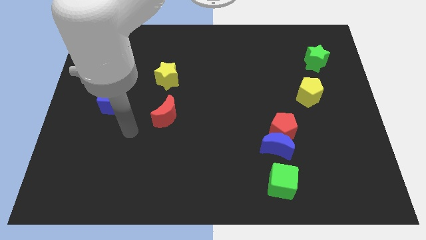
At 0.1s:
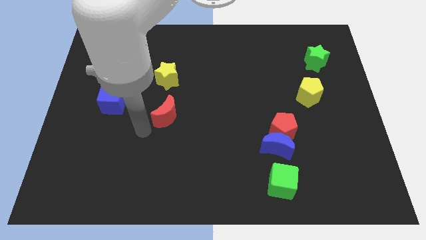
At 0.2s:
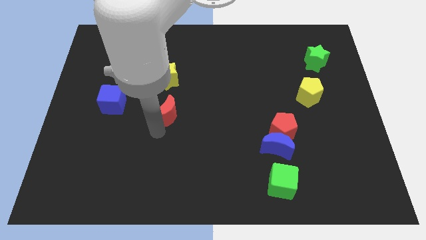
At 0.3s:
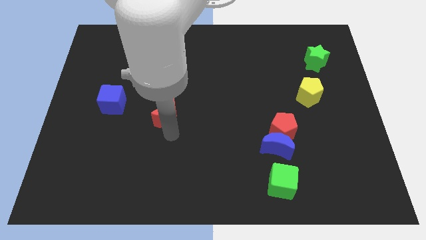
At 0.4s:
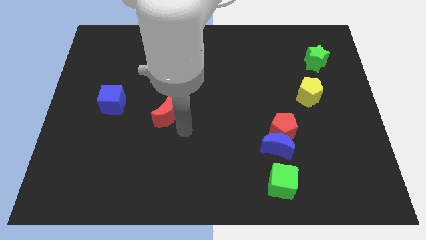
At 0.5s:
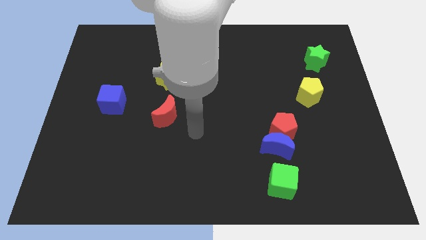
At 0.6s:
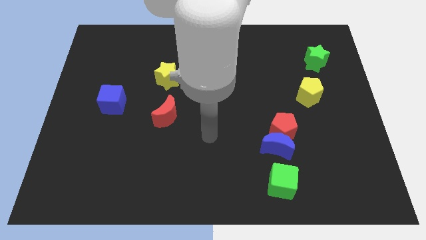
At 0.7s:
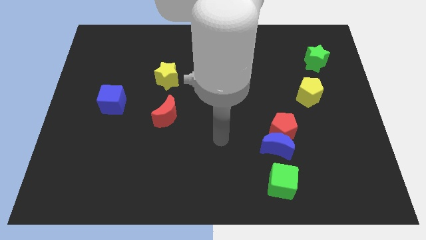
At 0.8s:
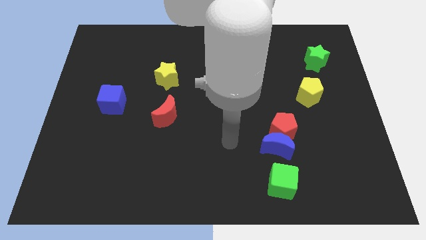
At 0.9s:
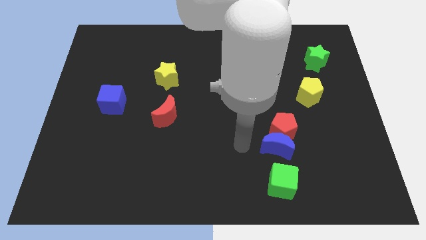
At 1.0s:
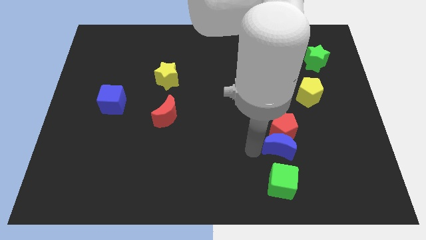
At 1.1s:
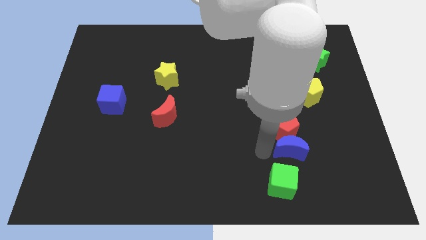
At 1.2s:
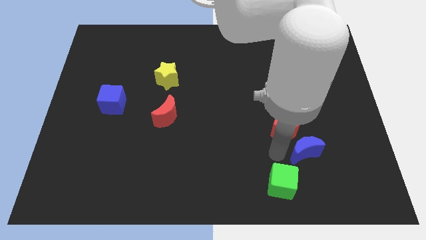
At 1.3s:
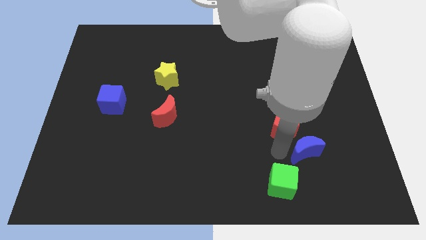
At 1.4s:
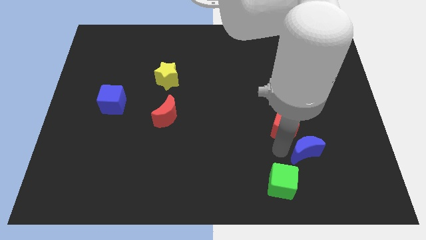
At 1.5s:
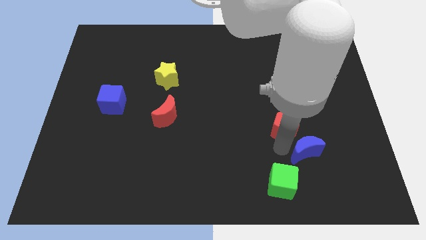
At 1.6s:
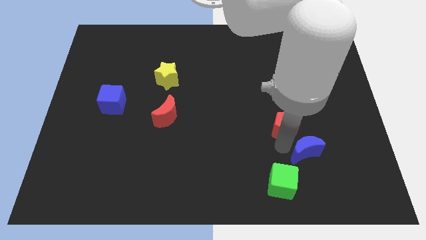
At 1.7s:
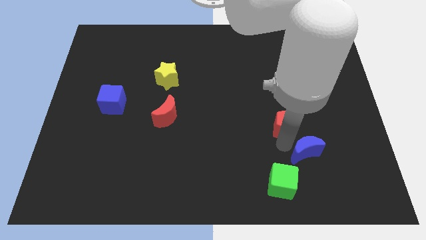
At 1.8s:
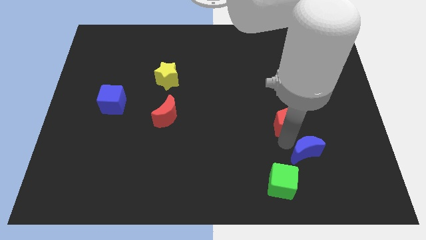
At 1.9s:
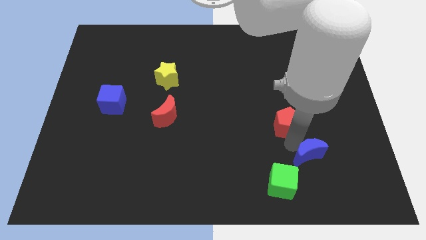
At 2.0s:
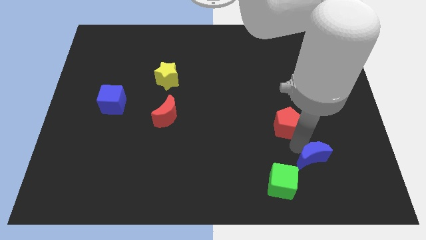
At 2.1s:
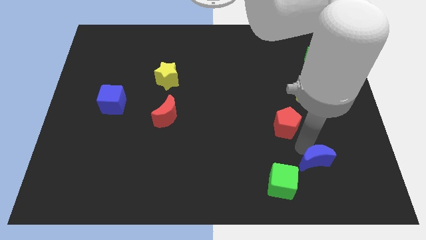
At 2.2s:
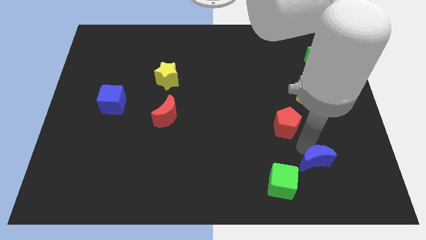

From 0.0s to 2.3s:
separate the red pentagon from the blue moon

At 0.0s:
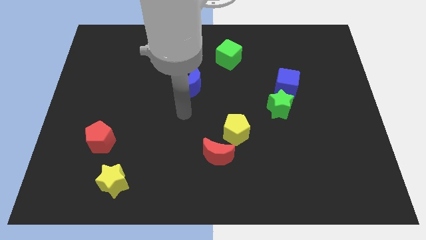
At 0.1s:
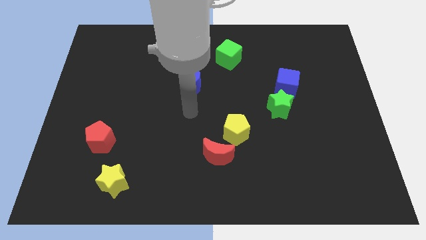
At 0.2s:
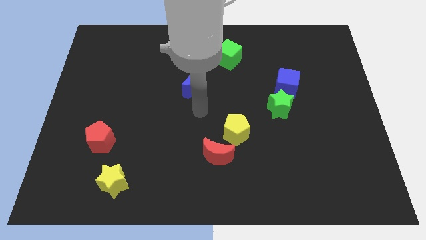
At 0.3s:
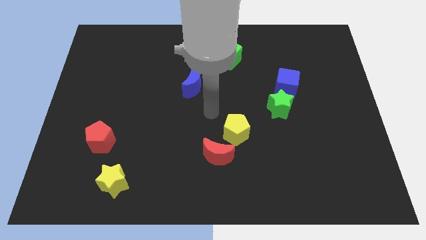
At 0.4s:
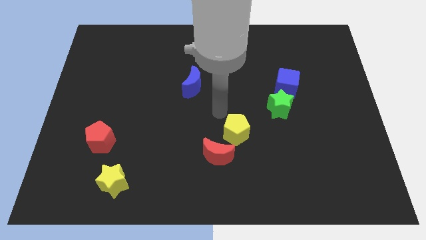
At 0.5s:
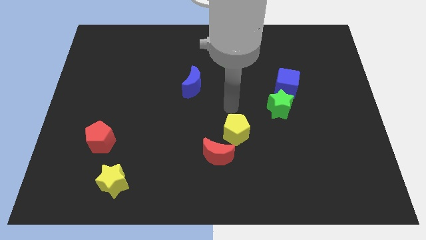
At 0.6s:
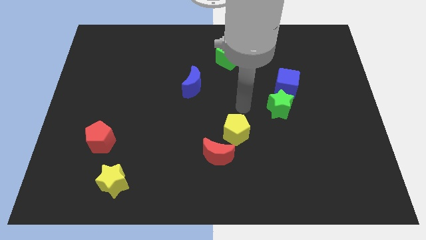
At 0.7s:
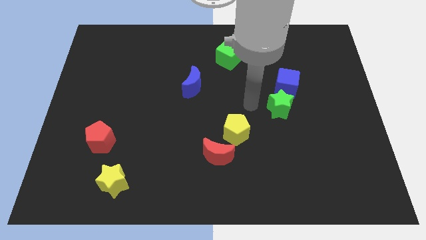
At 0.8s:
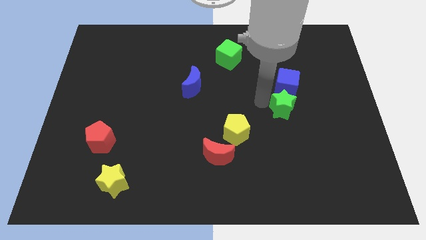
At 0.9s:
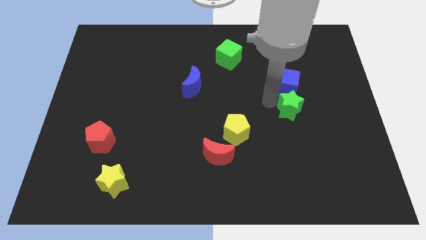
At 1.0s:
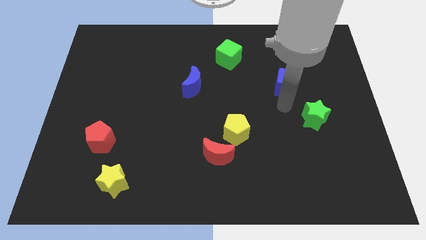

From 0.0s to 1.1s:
move the blue cube away from the green star

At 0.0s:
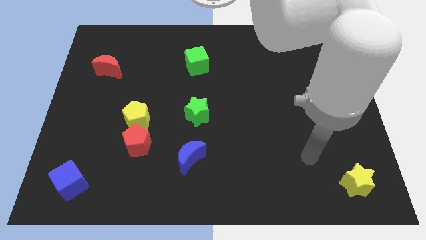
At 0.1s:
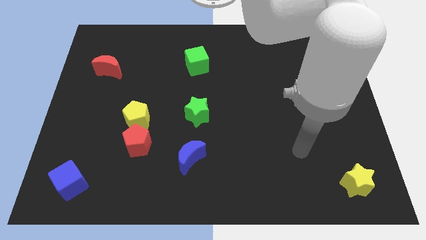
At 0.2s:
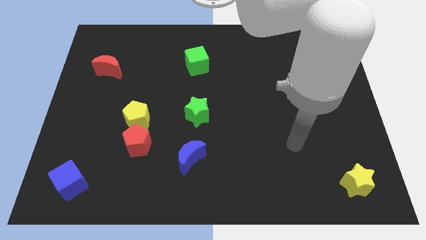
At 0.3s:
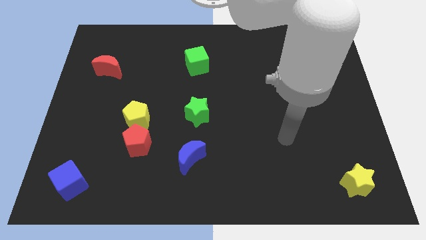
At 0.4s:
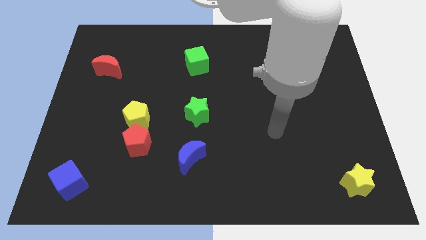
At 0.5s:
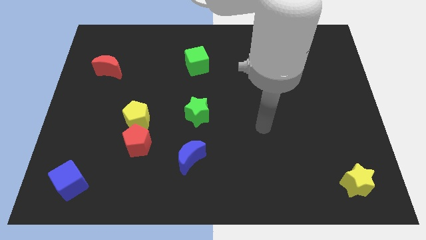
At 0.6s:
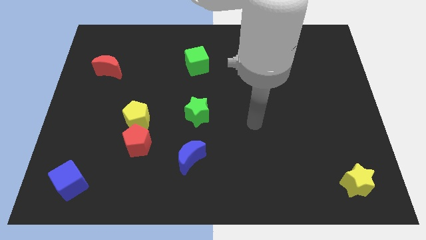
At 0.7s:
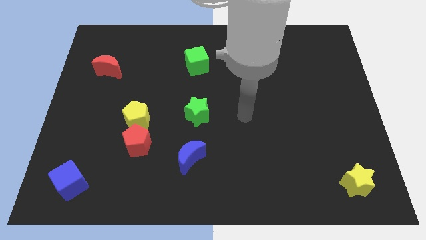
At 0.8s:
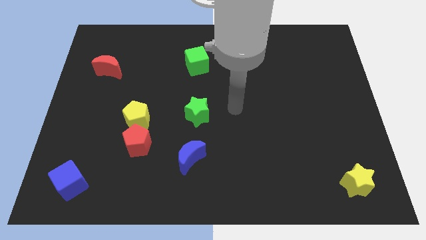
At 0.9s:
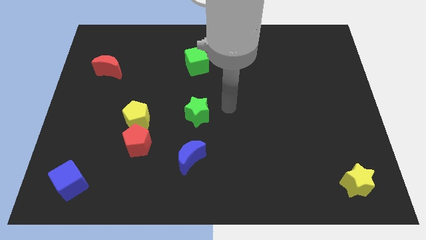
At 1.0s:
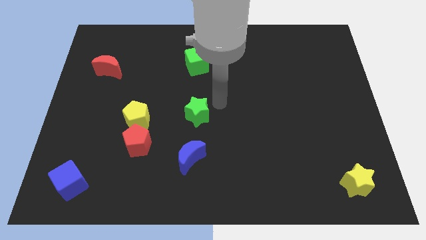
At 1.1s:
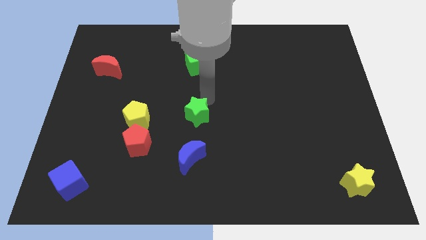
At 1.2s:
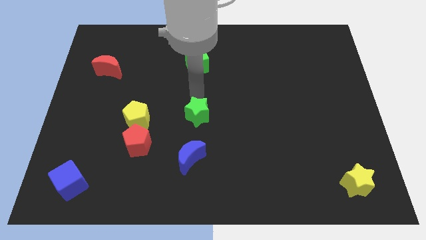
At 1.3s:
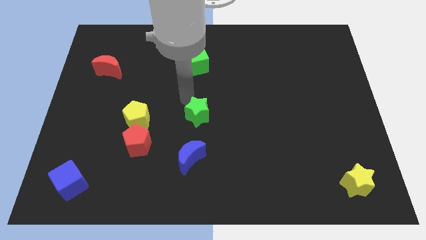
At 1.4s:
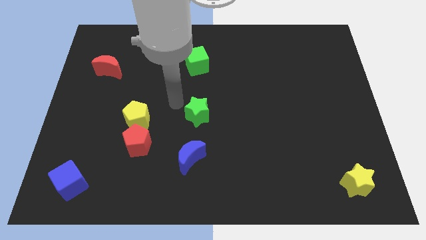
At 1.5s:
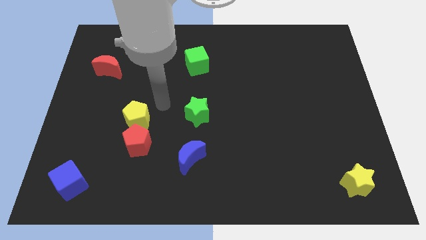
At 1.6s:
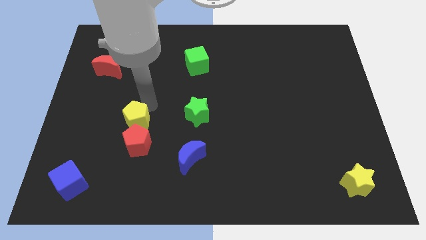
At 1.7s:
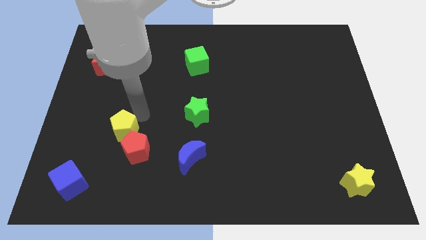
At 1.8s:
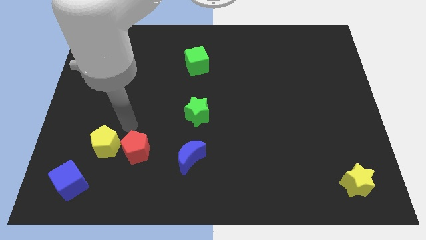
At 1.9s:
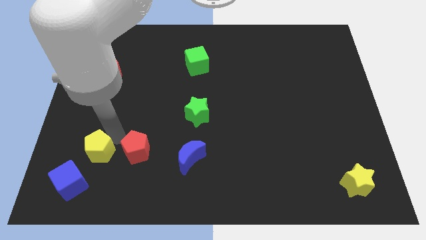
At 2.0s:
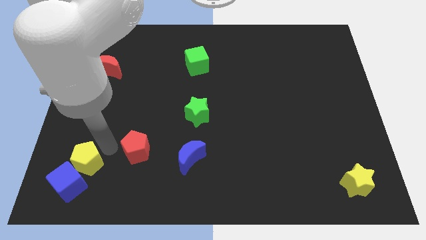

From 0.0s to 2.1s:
separate the red pentagon from the yellow pentagon

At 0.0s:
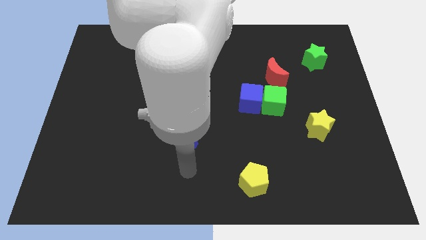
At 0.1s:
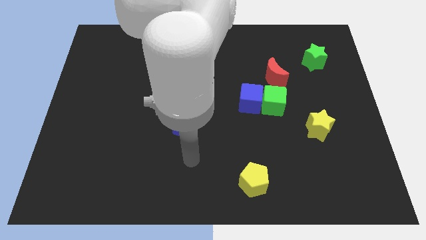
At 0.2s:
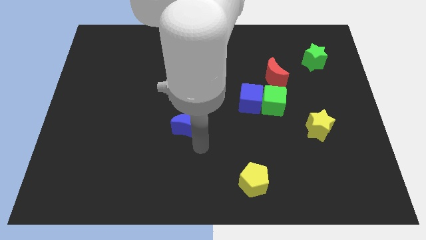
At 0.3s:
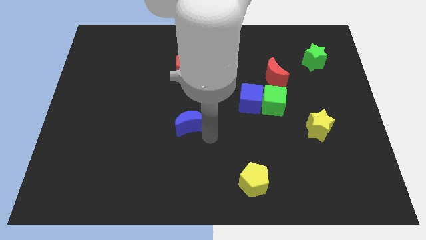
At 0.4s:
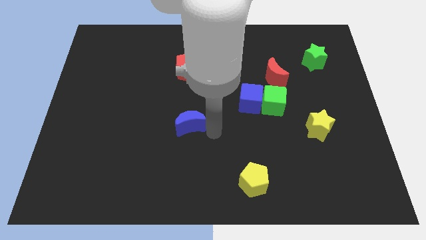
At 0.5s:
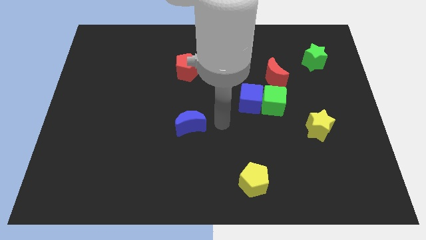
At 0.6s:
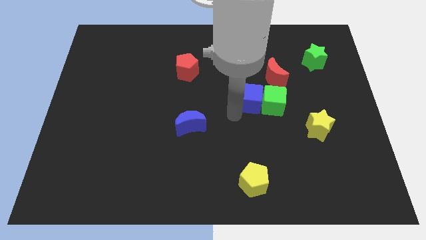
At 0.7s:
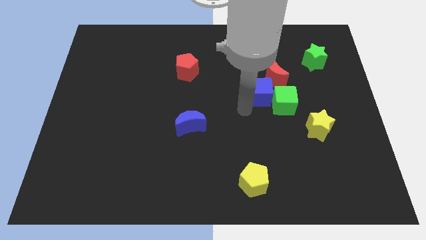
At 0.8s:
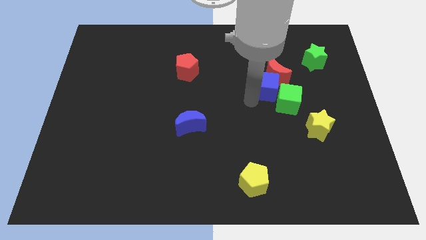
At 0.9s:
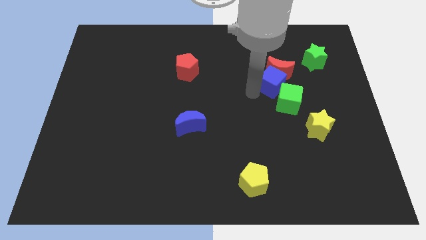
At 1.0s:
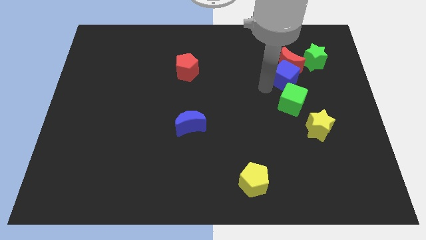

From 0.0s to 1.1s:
pull the green cube apart from the blue cube and red moon

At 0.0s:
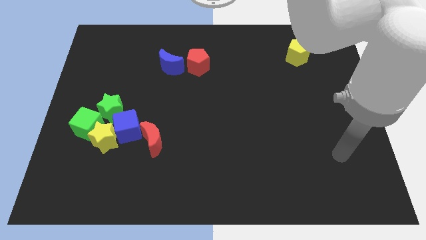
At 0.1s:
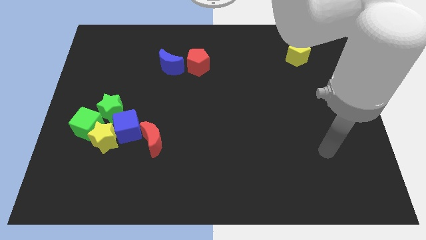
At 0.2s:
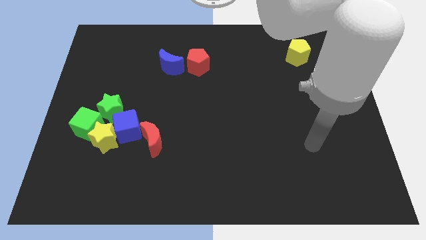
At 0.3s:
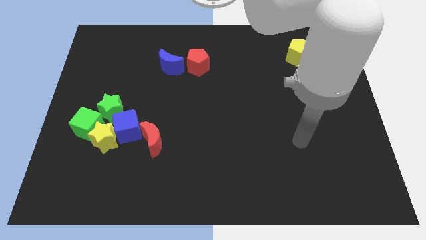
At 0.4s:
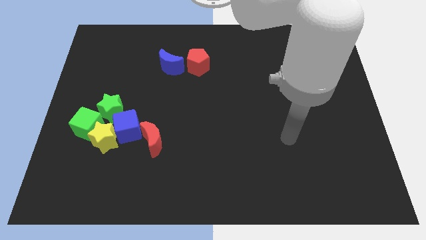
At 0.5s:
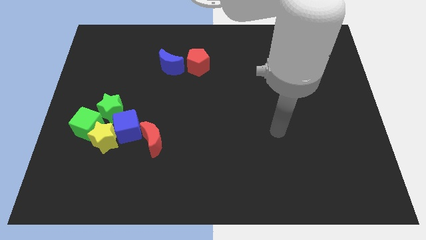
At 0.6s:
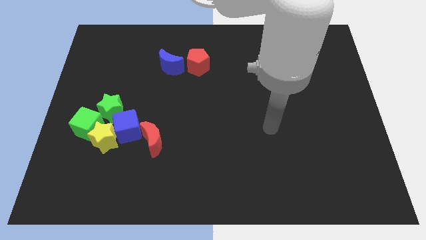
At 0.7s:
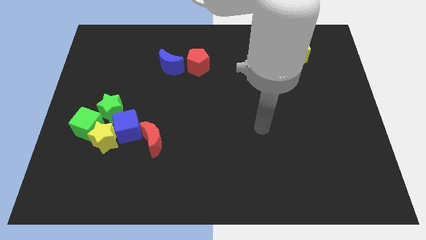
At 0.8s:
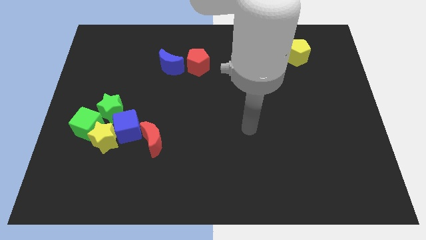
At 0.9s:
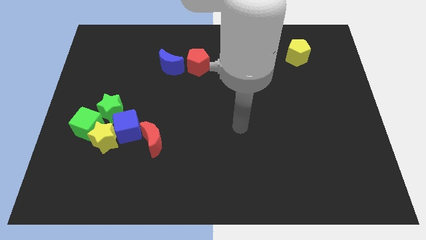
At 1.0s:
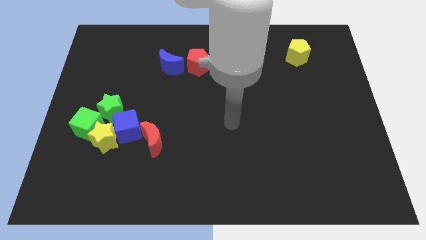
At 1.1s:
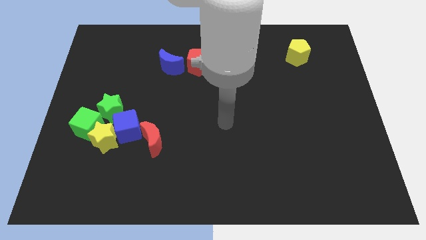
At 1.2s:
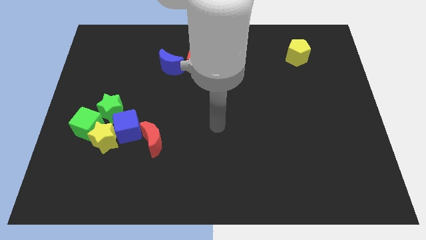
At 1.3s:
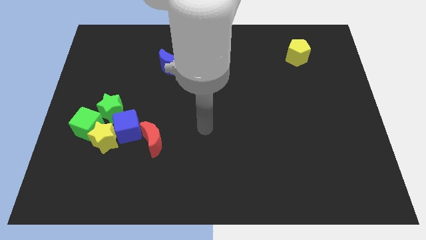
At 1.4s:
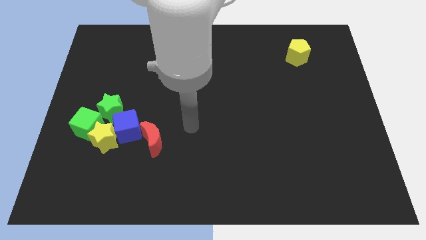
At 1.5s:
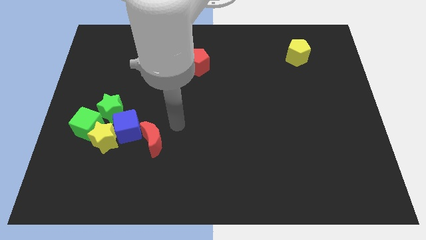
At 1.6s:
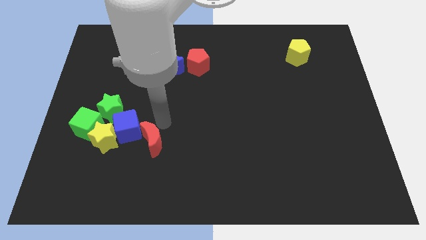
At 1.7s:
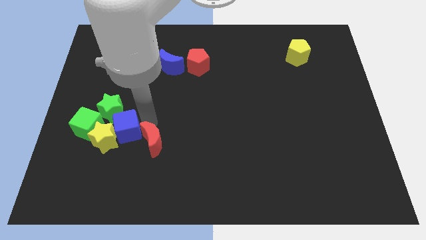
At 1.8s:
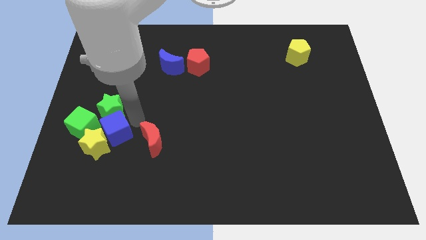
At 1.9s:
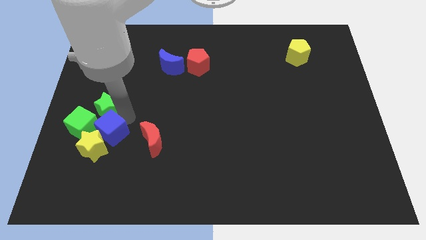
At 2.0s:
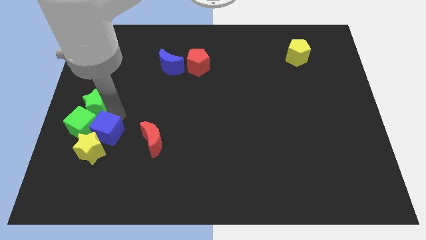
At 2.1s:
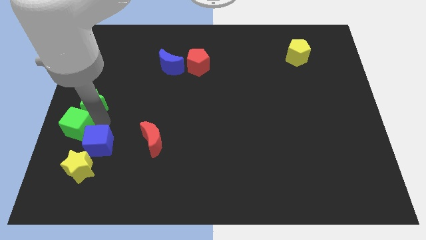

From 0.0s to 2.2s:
pull the yellow star apart from the blue cube, green cube, and green star

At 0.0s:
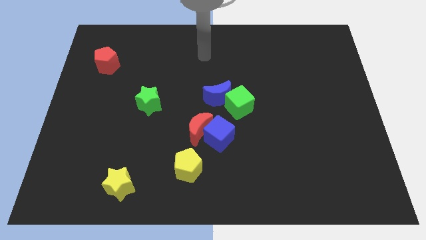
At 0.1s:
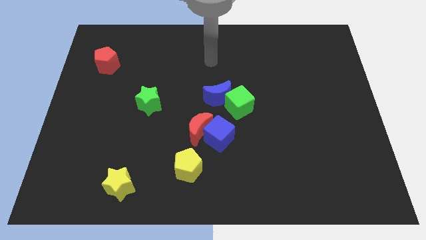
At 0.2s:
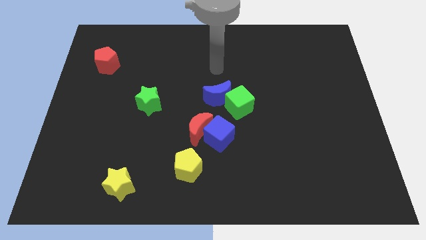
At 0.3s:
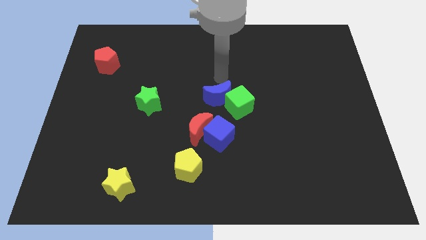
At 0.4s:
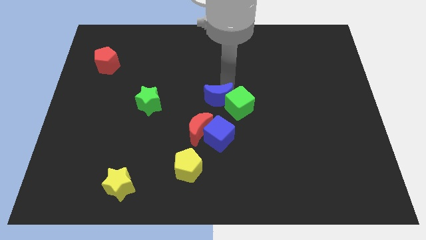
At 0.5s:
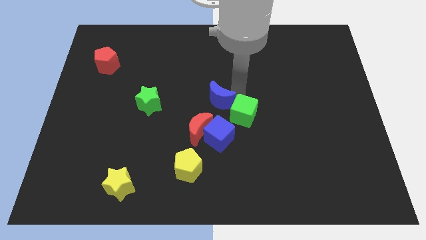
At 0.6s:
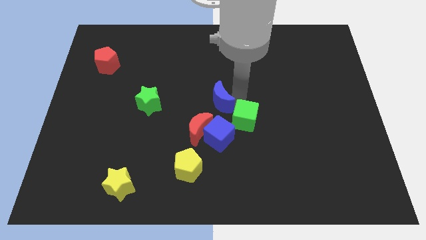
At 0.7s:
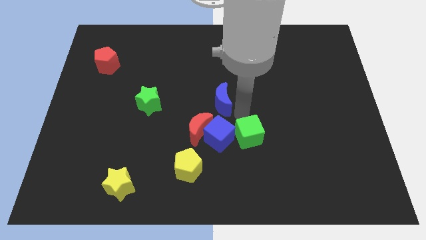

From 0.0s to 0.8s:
pull the blue moon apart from the green cube
